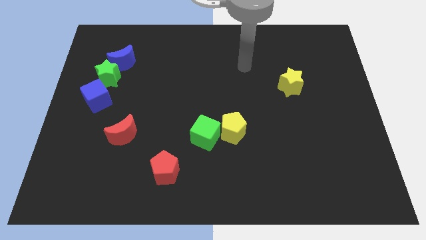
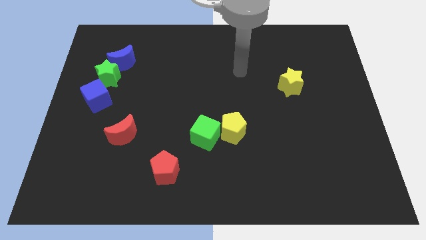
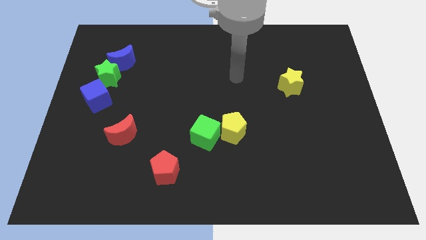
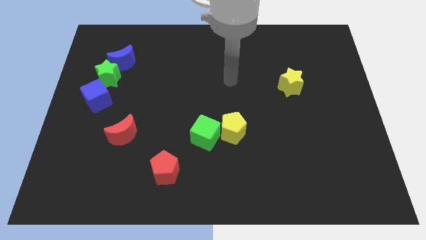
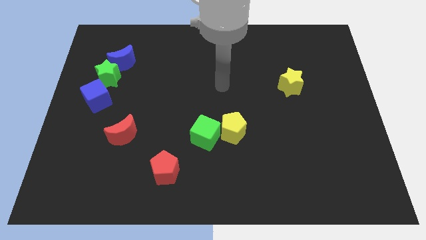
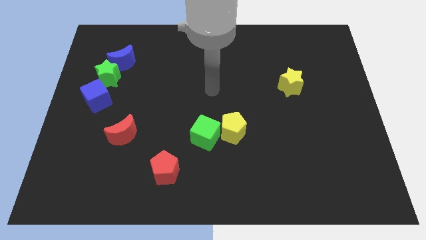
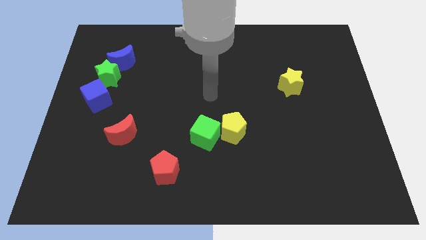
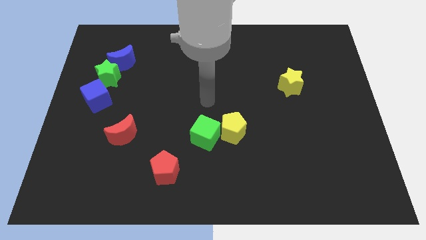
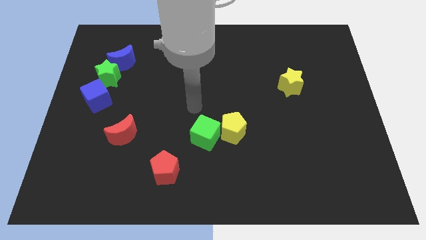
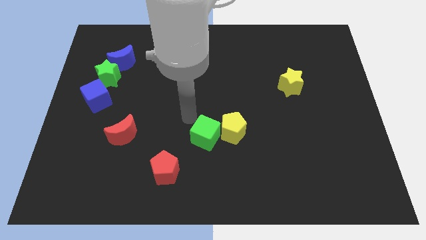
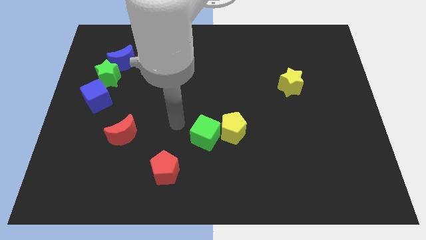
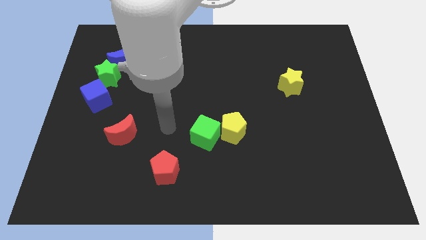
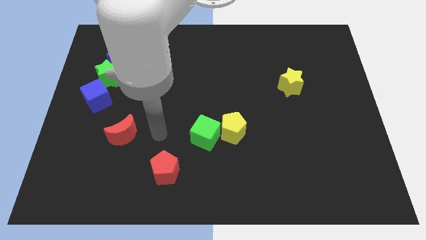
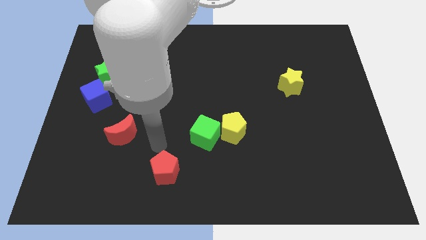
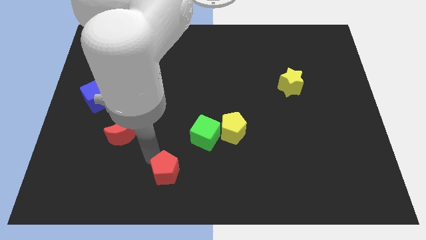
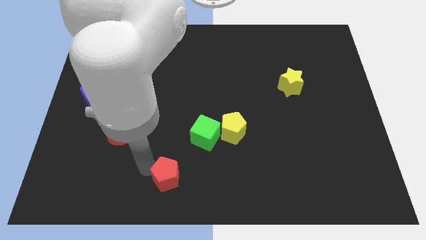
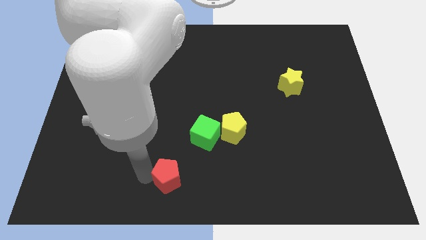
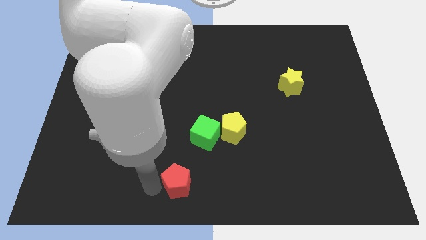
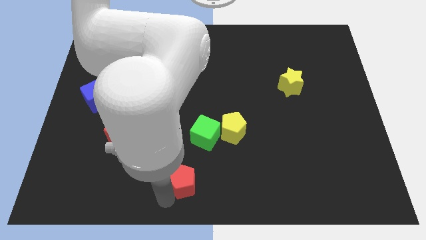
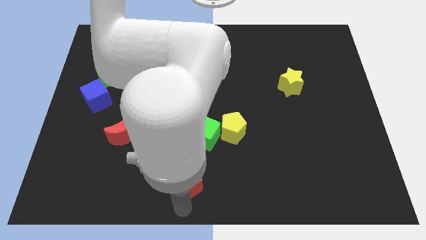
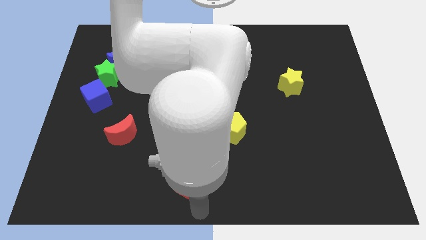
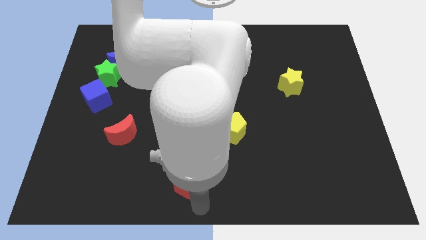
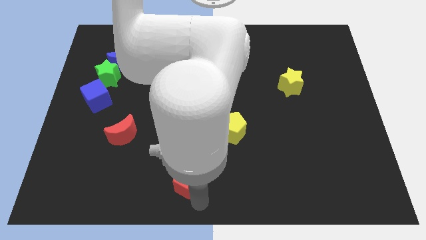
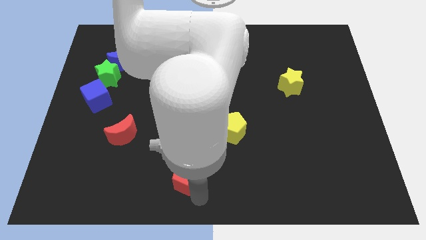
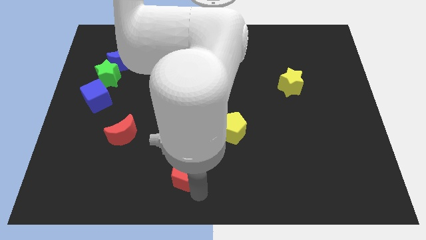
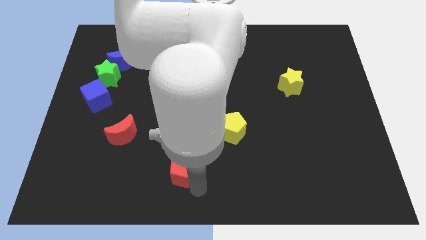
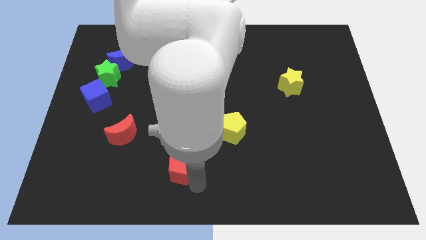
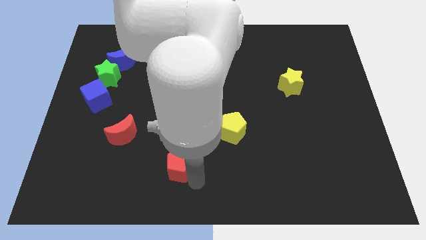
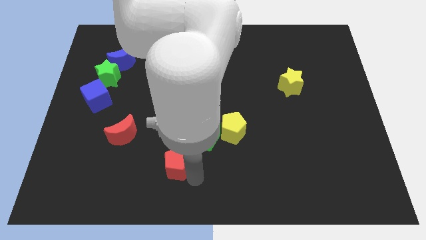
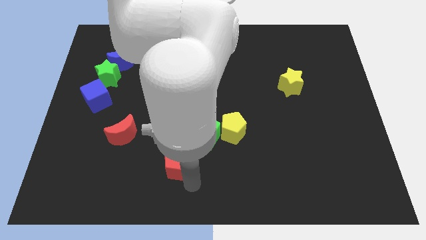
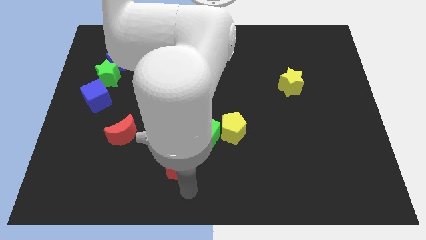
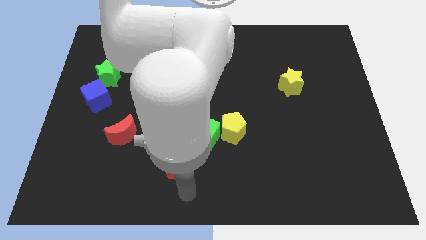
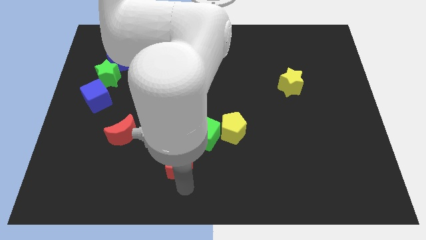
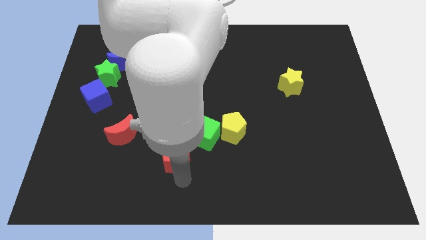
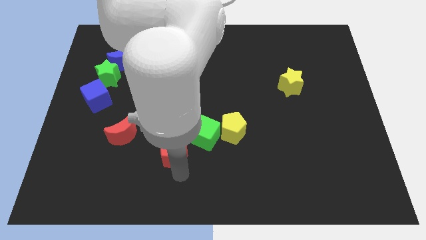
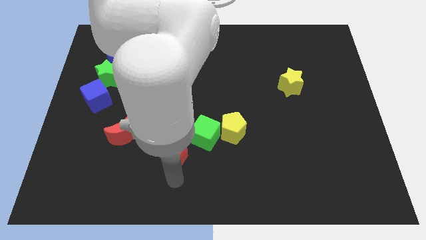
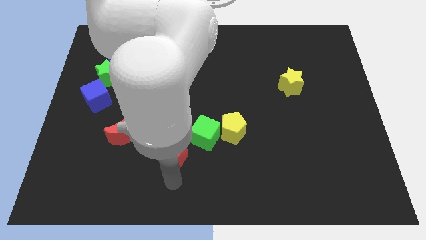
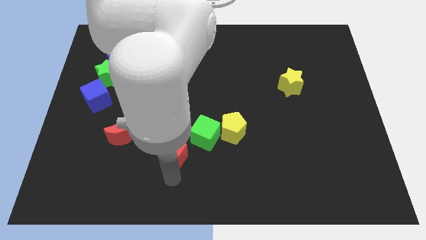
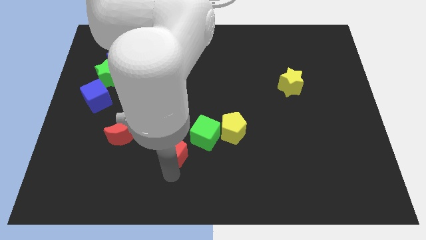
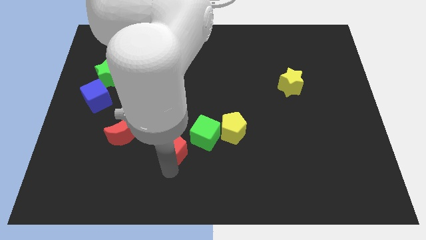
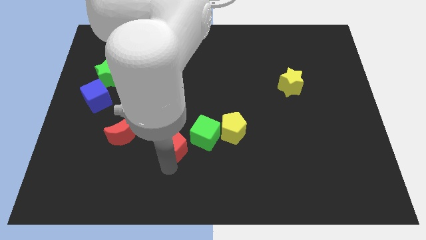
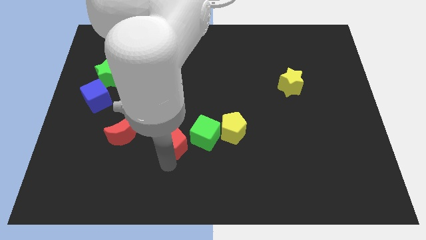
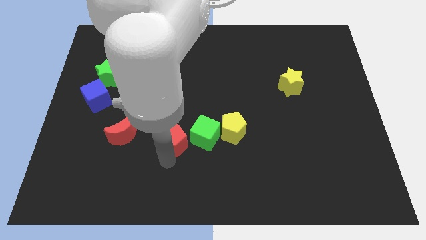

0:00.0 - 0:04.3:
push the red pentagon a bit upwards

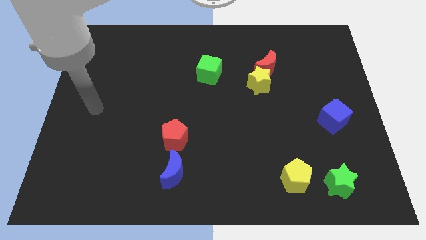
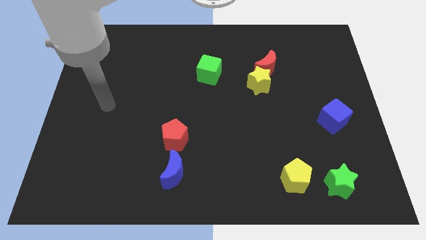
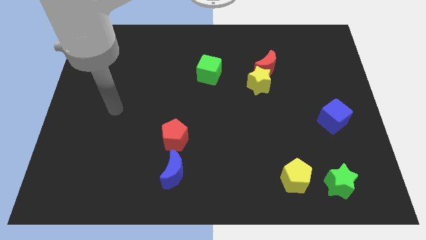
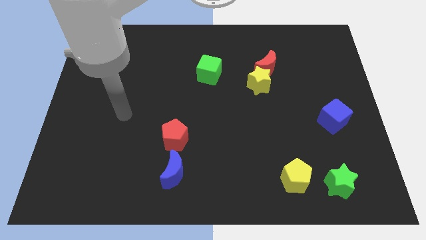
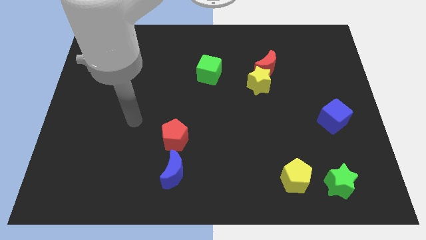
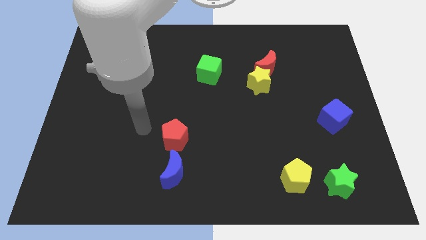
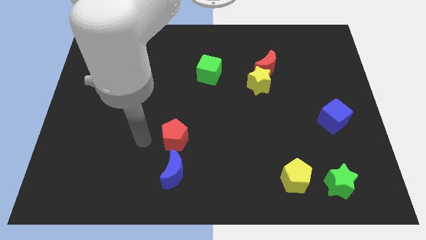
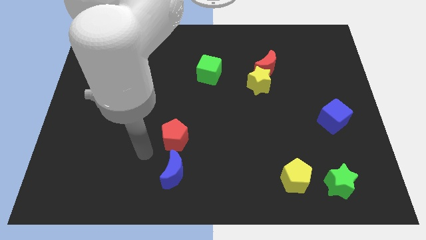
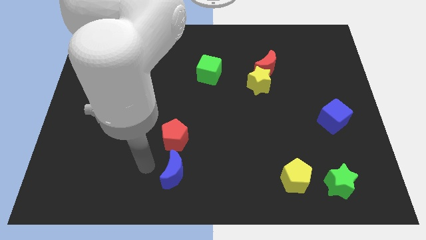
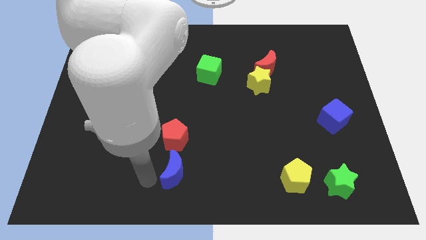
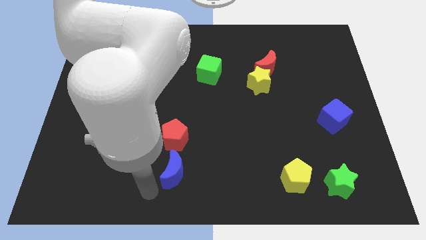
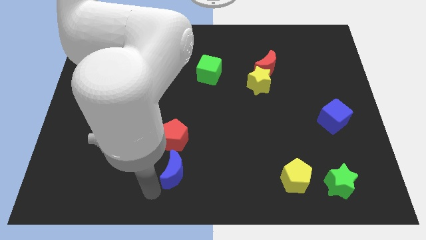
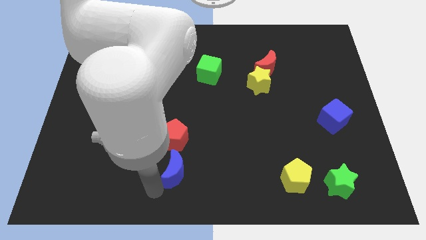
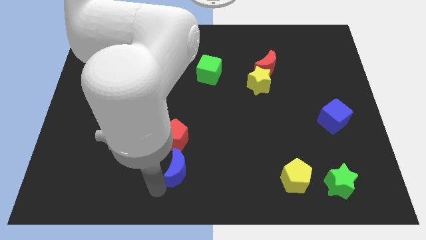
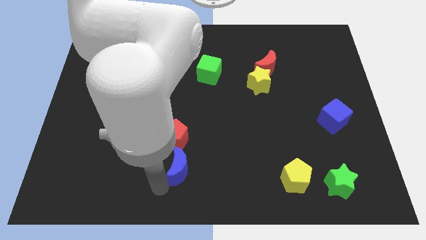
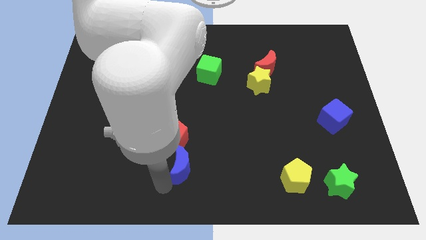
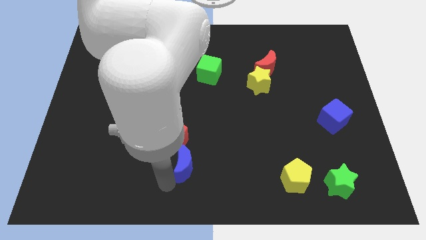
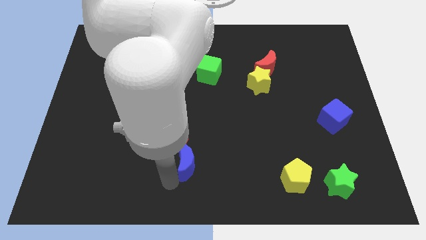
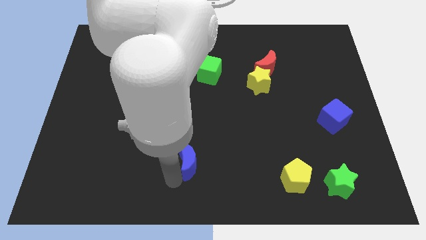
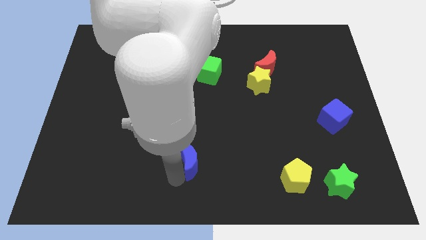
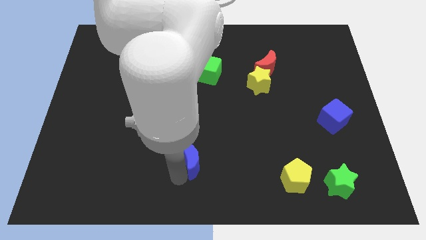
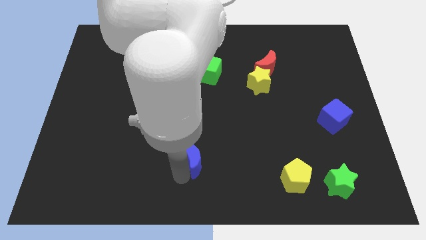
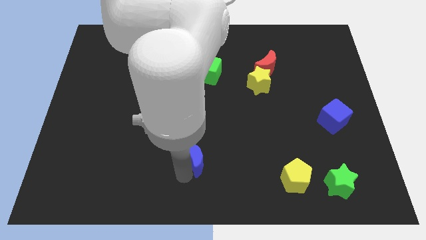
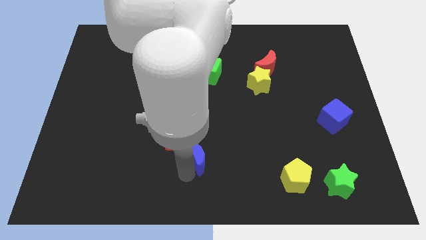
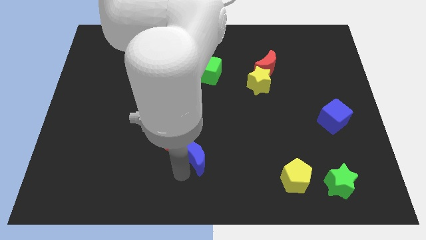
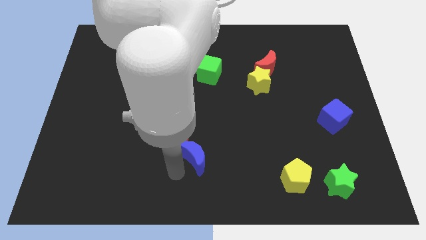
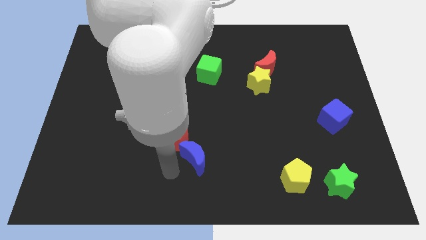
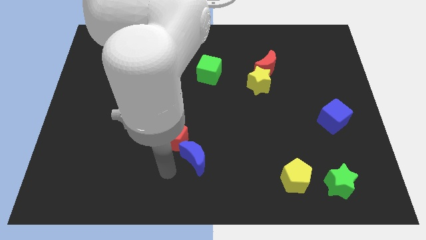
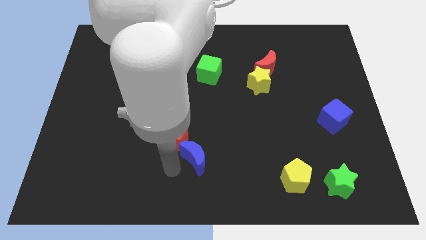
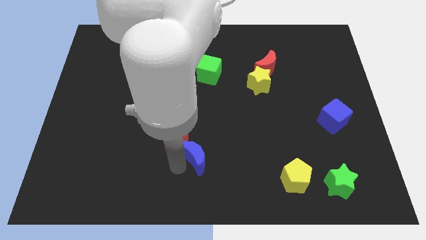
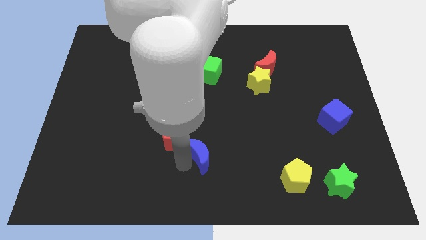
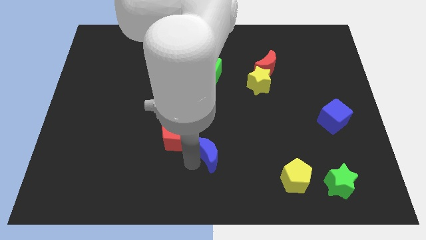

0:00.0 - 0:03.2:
push the blue moon diagonally upwards and to the right a little bit

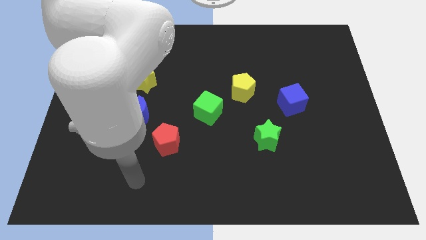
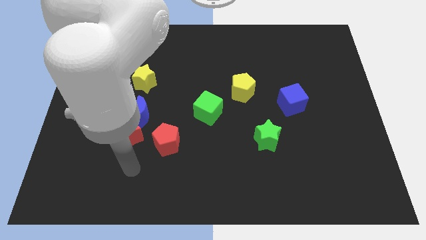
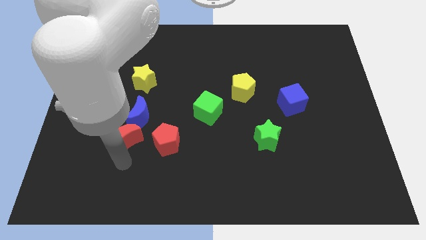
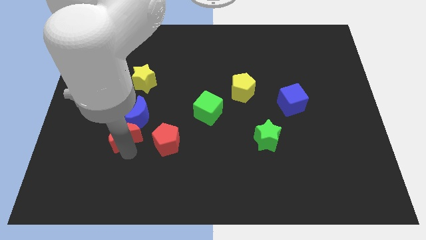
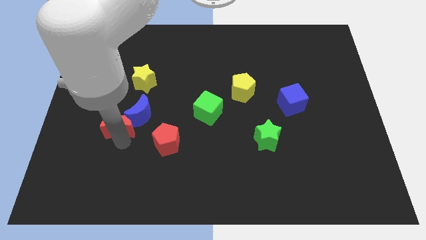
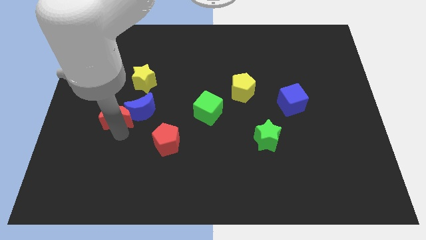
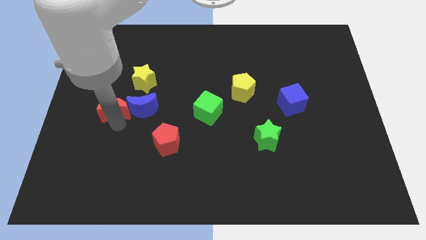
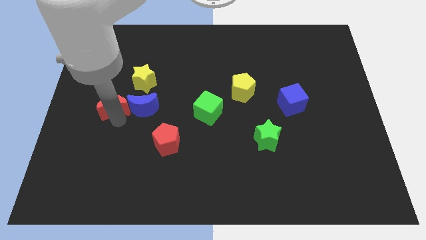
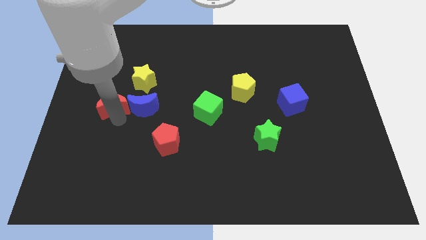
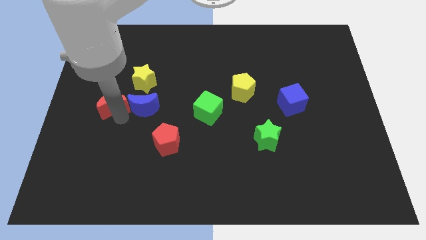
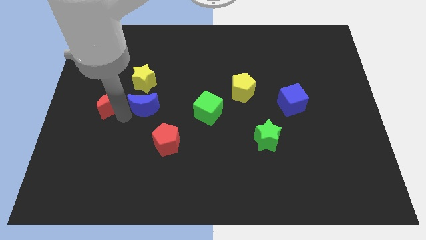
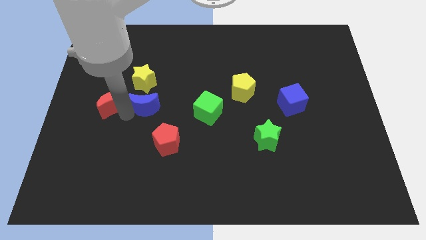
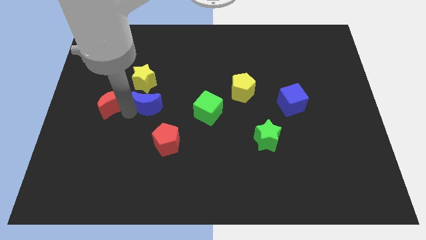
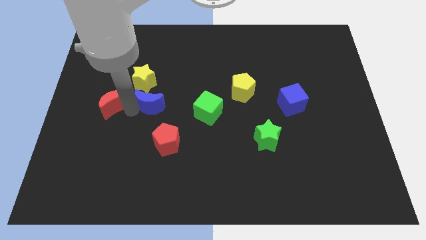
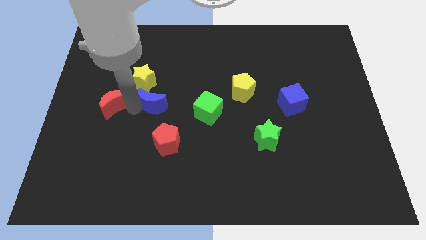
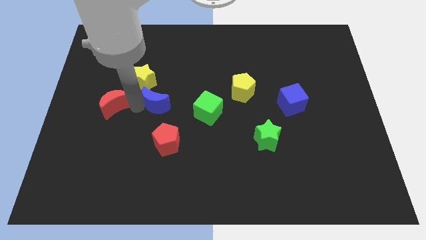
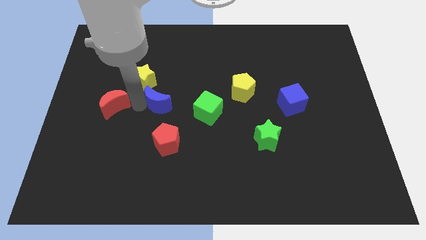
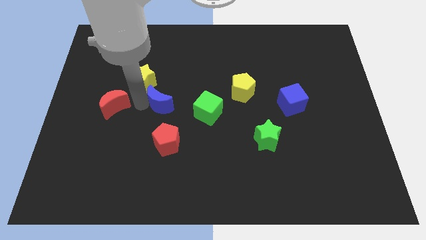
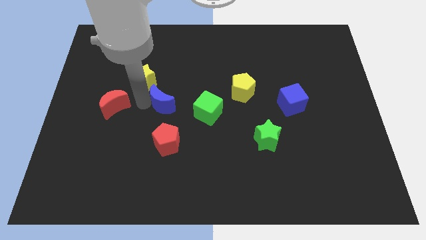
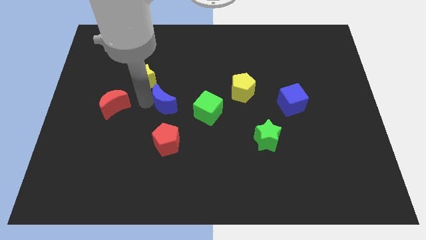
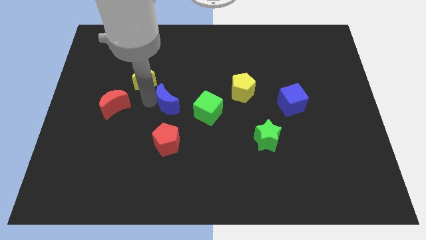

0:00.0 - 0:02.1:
push the blue moon diagonally upwards and right a bit
